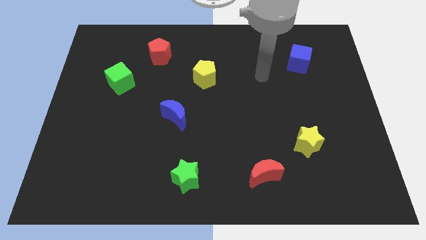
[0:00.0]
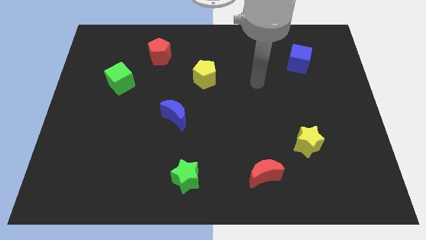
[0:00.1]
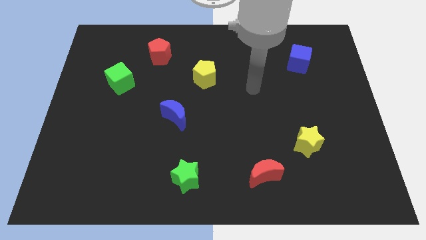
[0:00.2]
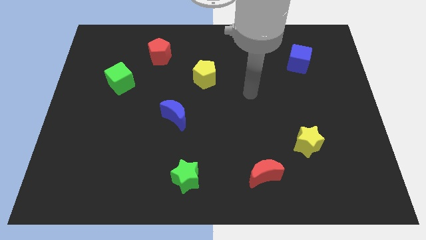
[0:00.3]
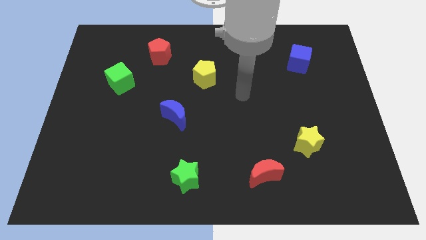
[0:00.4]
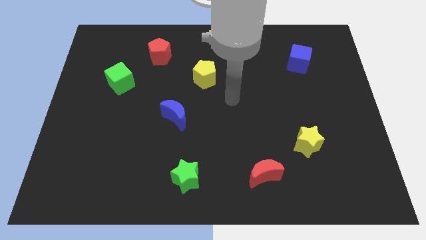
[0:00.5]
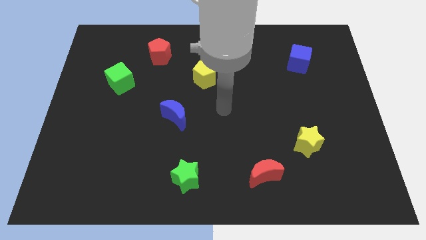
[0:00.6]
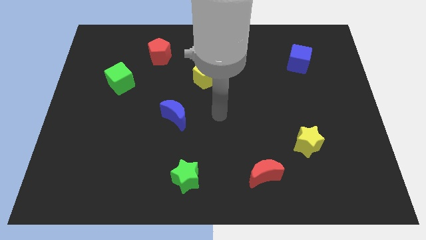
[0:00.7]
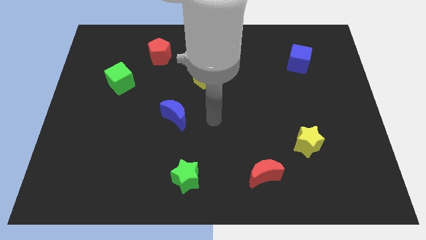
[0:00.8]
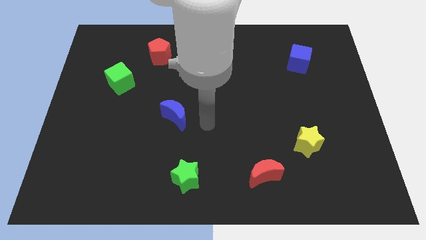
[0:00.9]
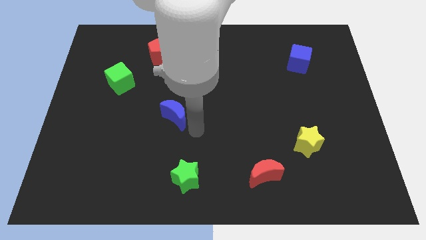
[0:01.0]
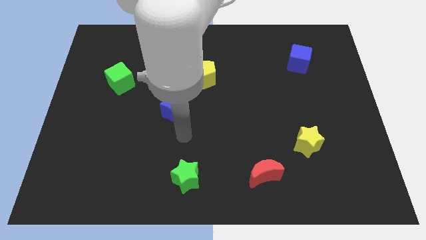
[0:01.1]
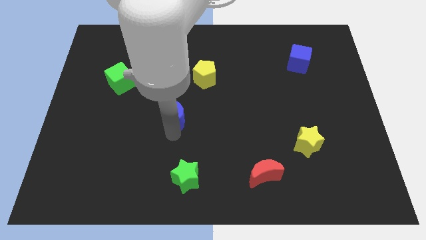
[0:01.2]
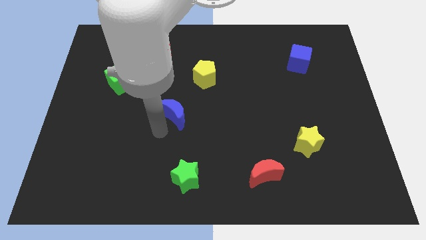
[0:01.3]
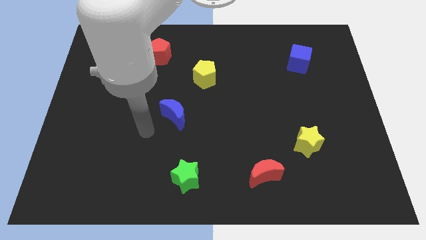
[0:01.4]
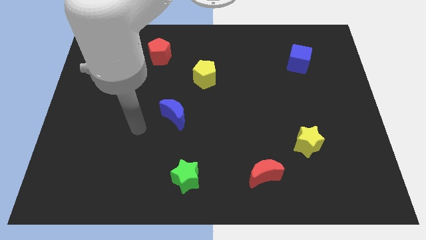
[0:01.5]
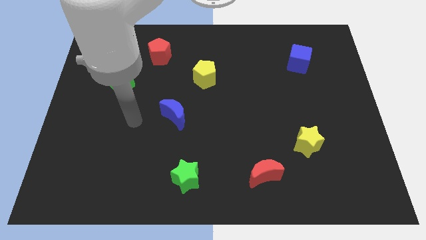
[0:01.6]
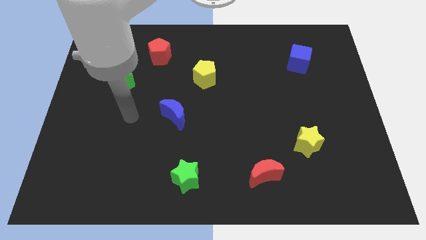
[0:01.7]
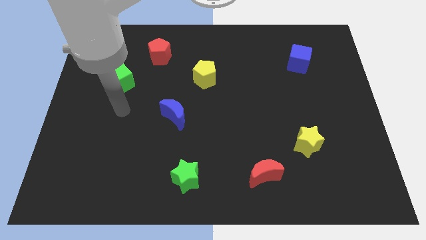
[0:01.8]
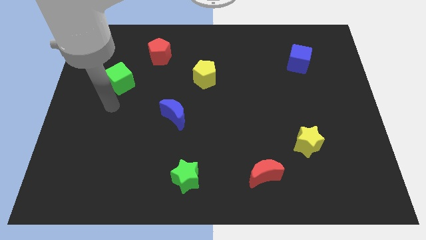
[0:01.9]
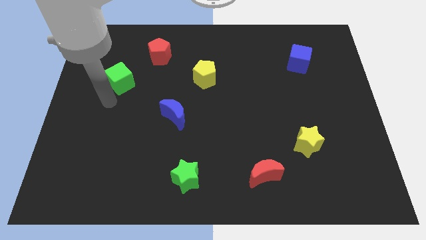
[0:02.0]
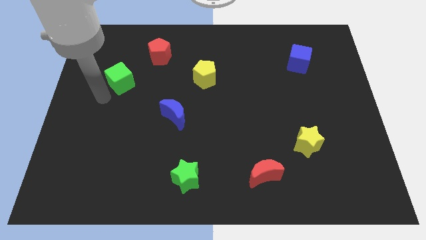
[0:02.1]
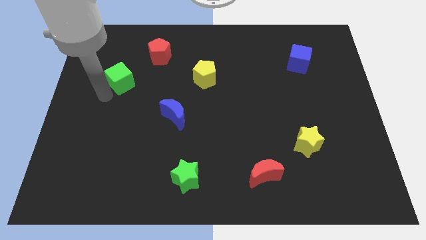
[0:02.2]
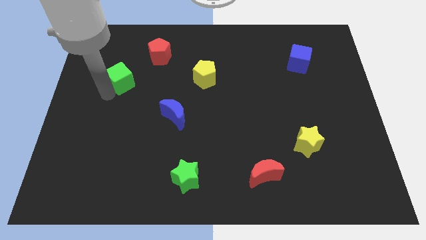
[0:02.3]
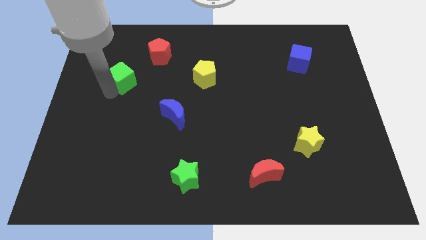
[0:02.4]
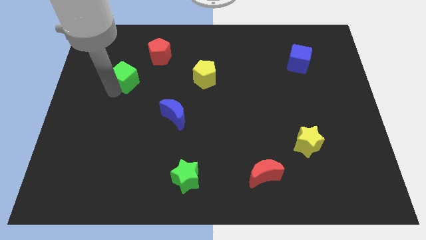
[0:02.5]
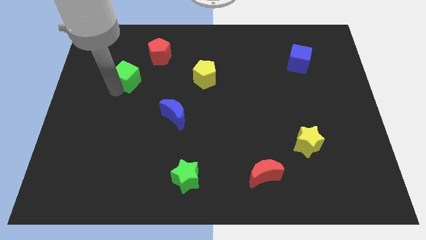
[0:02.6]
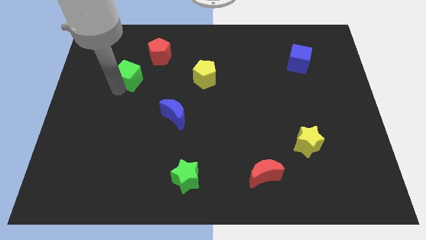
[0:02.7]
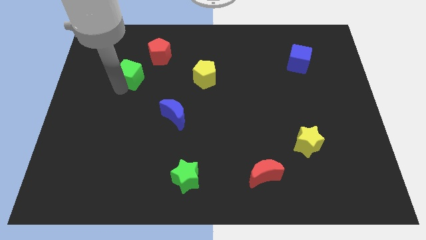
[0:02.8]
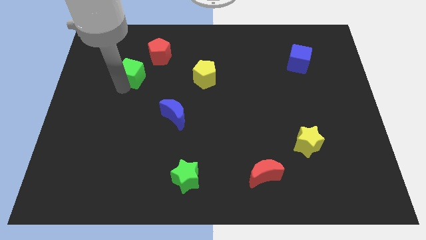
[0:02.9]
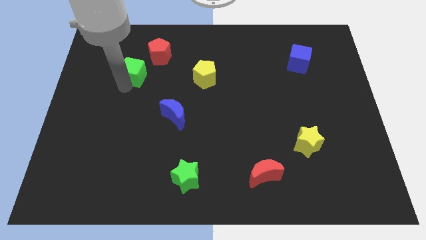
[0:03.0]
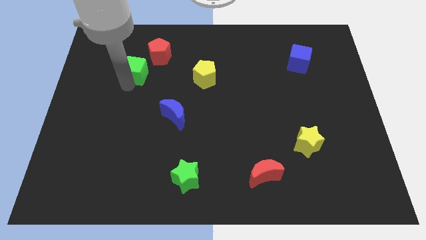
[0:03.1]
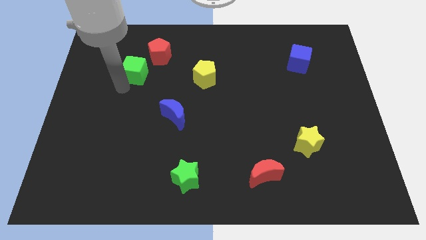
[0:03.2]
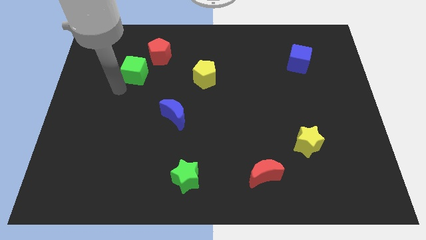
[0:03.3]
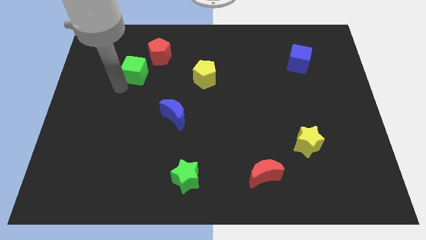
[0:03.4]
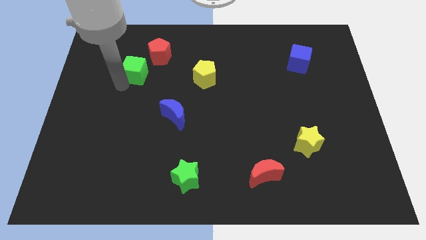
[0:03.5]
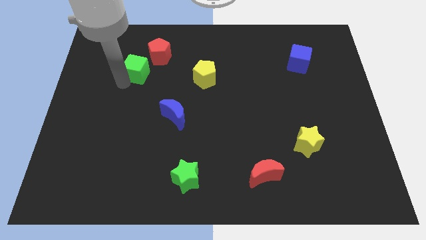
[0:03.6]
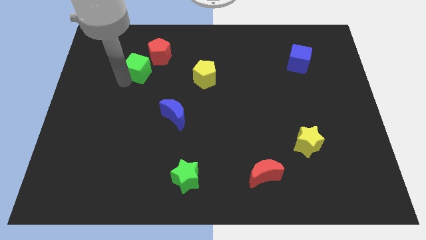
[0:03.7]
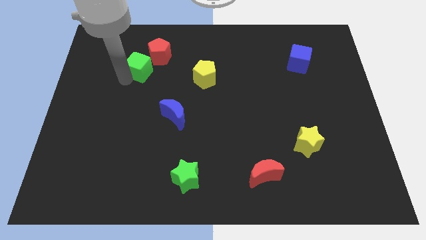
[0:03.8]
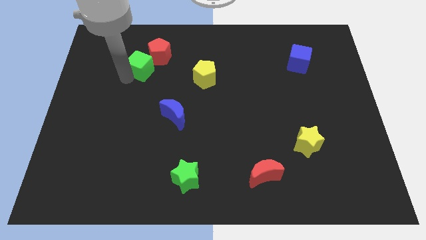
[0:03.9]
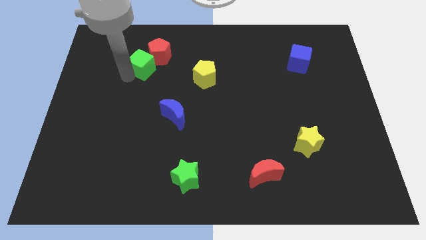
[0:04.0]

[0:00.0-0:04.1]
put the green cube next to the red pentagon

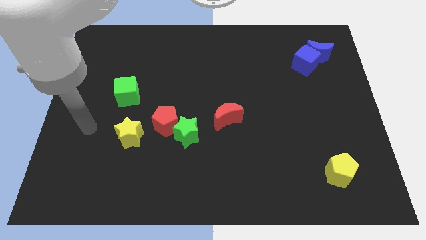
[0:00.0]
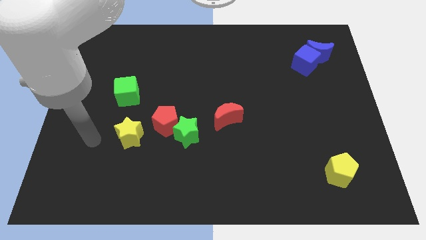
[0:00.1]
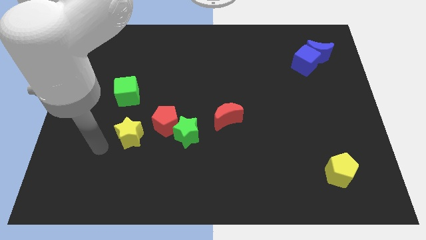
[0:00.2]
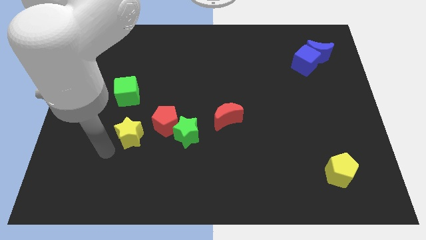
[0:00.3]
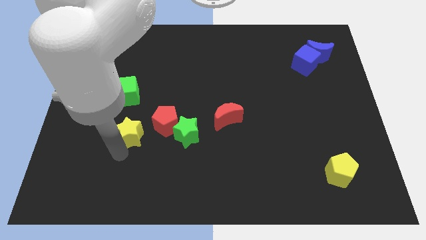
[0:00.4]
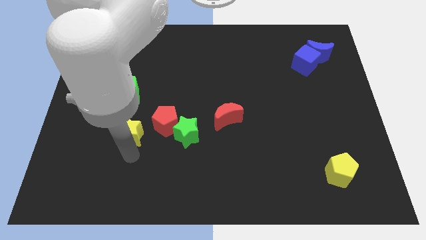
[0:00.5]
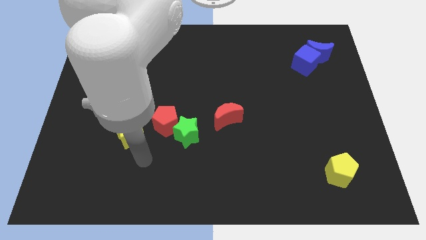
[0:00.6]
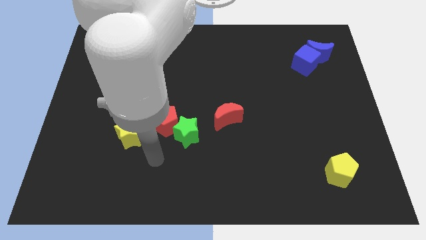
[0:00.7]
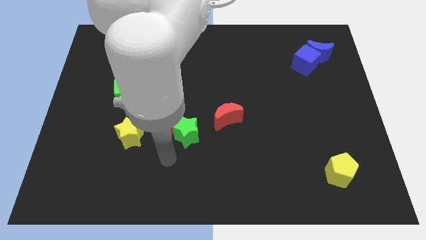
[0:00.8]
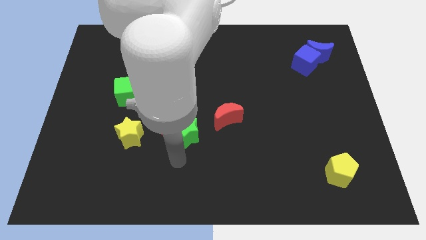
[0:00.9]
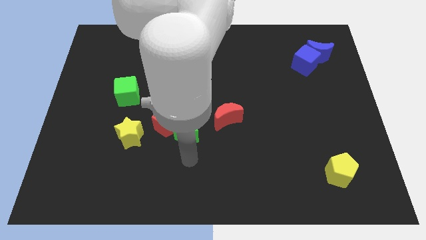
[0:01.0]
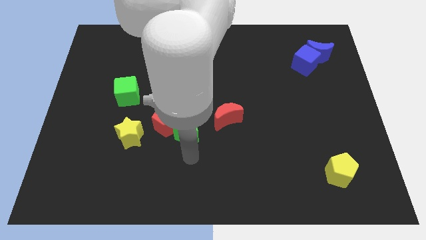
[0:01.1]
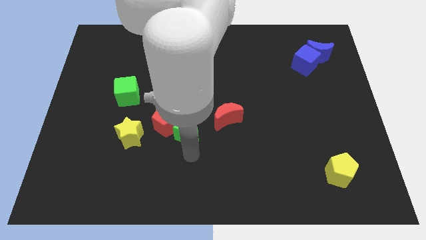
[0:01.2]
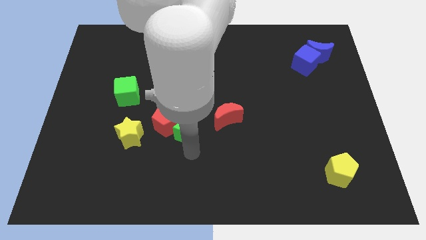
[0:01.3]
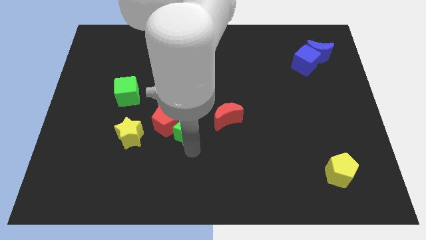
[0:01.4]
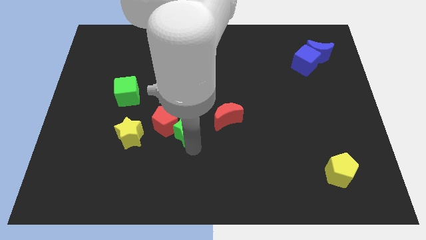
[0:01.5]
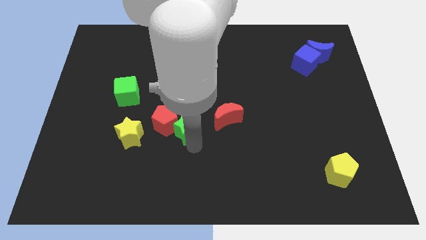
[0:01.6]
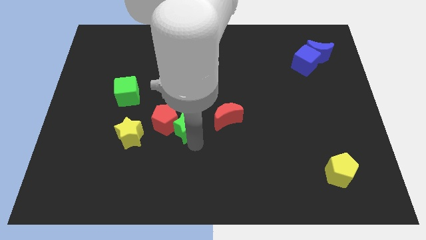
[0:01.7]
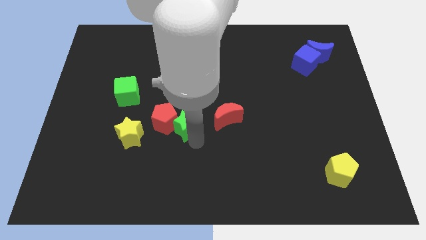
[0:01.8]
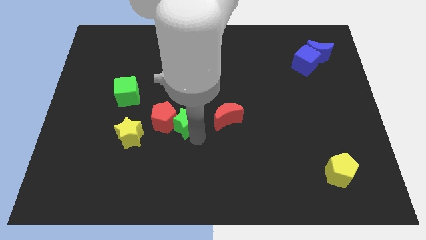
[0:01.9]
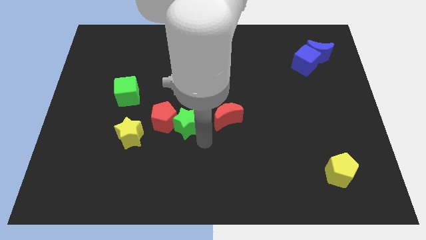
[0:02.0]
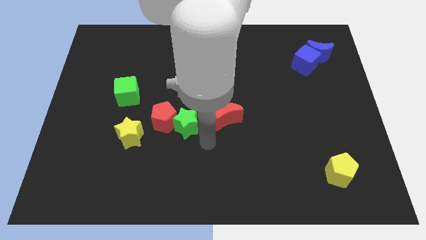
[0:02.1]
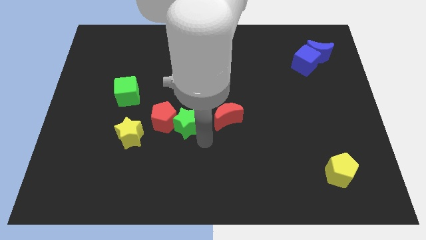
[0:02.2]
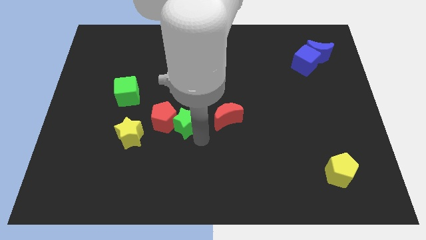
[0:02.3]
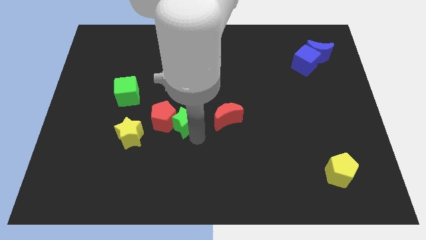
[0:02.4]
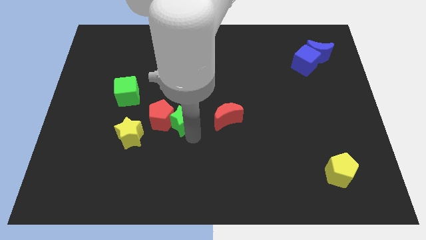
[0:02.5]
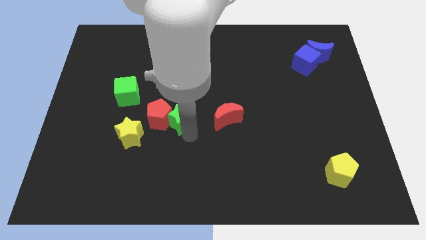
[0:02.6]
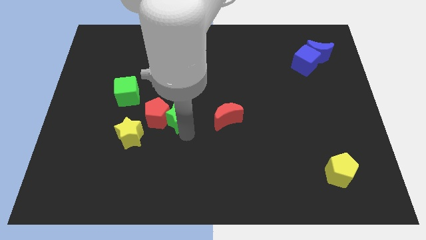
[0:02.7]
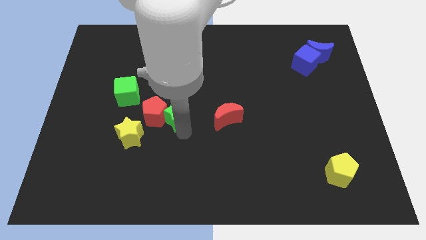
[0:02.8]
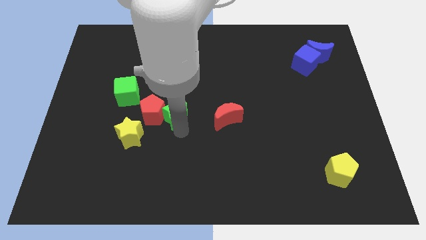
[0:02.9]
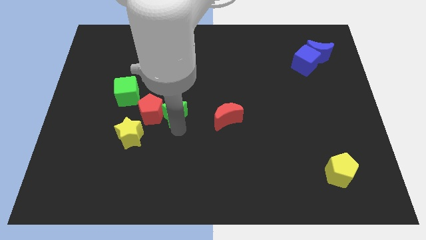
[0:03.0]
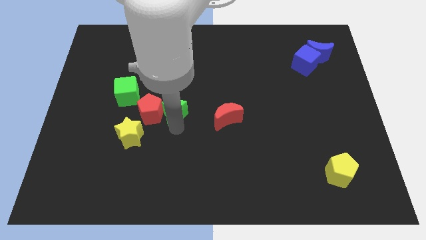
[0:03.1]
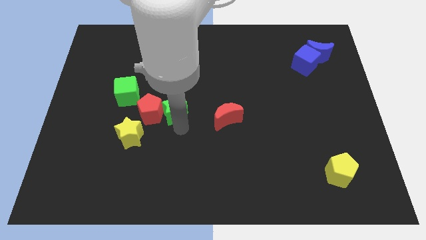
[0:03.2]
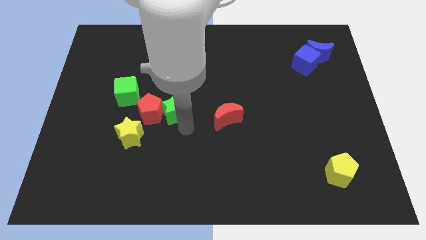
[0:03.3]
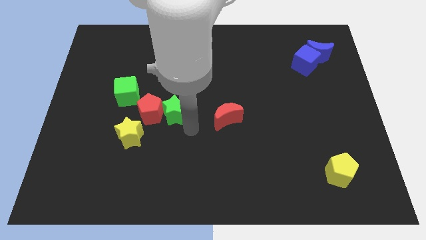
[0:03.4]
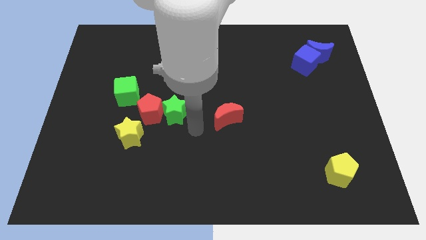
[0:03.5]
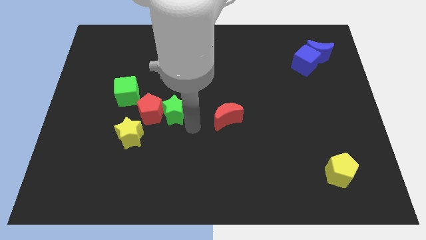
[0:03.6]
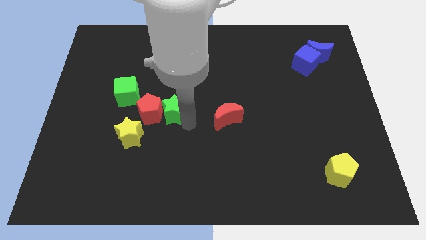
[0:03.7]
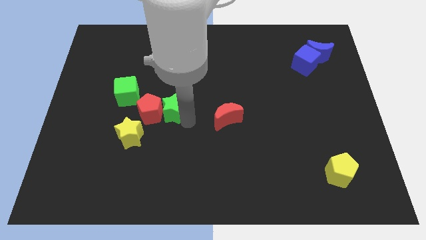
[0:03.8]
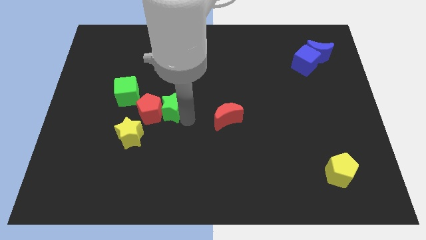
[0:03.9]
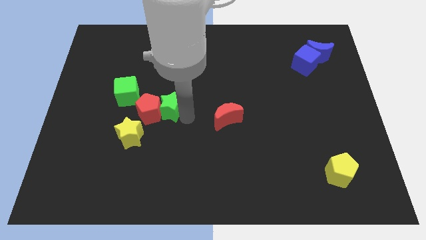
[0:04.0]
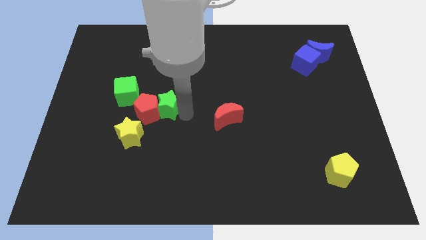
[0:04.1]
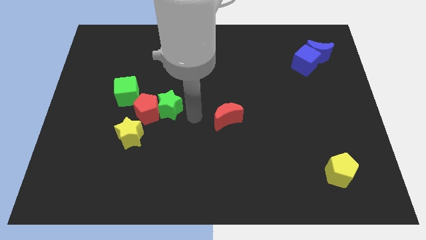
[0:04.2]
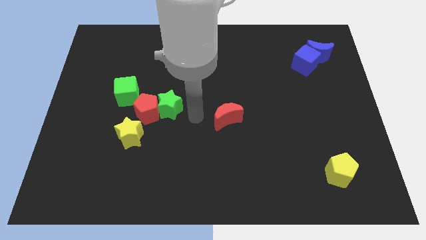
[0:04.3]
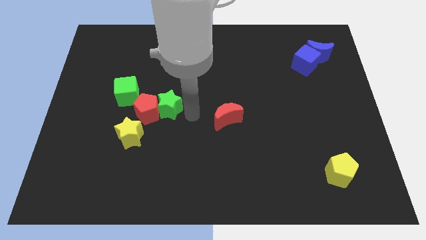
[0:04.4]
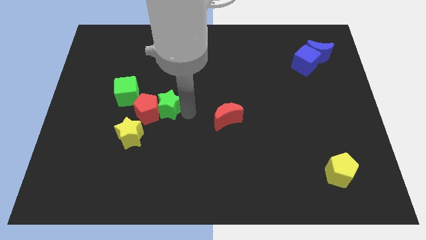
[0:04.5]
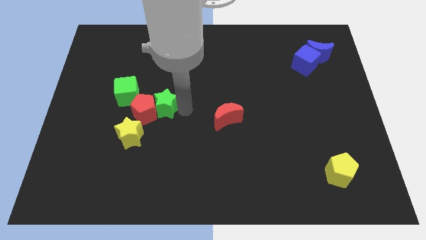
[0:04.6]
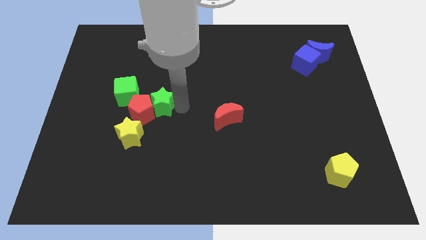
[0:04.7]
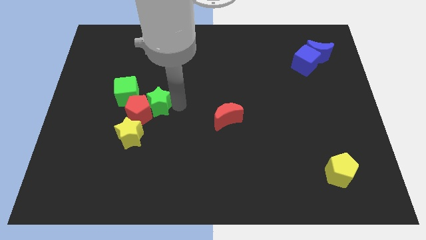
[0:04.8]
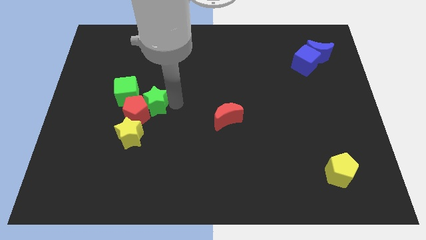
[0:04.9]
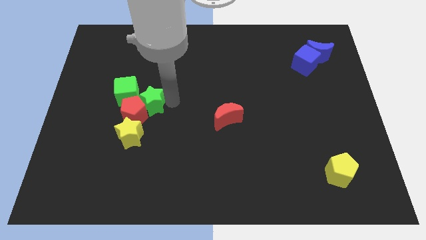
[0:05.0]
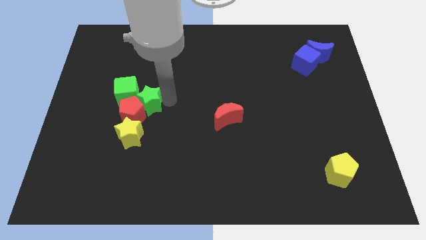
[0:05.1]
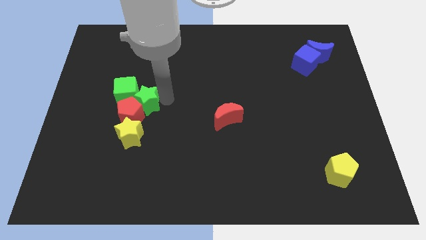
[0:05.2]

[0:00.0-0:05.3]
slide the green star towards the green cube
